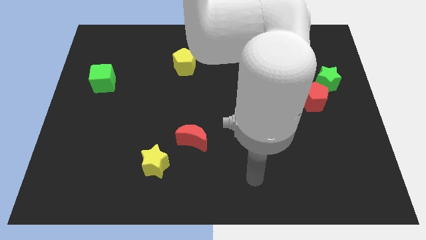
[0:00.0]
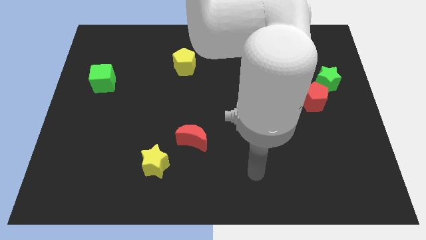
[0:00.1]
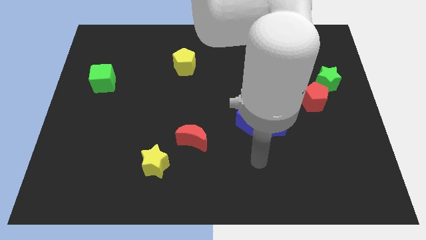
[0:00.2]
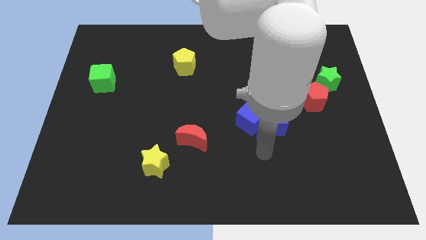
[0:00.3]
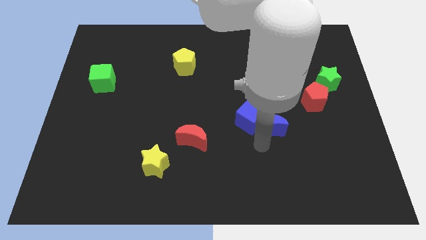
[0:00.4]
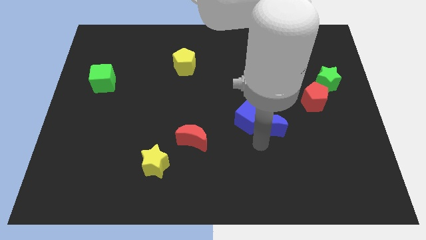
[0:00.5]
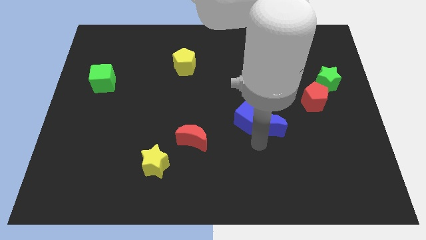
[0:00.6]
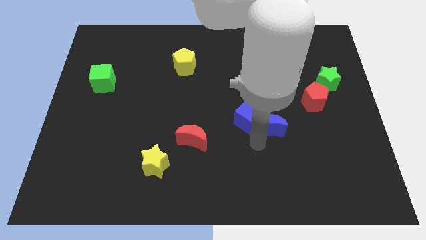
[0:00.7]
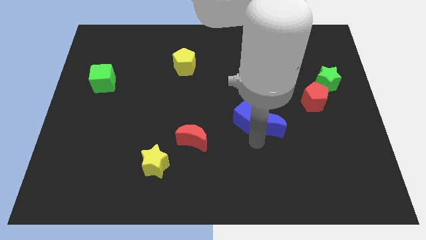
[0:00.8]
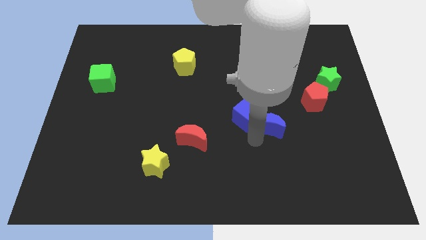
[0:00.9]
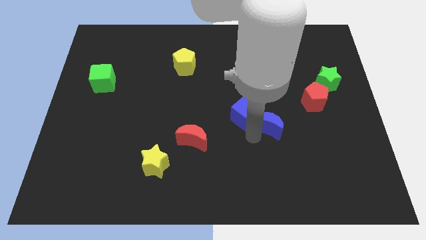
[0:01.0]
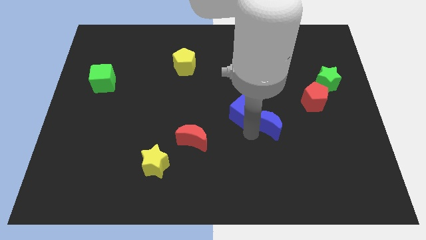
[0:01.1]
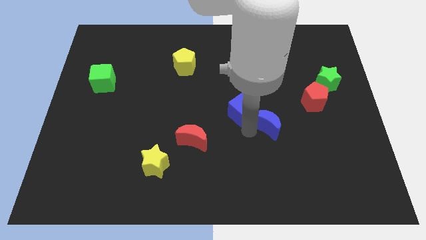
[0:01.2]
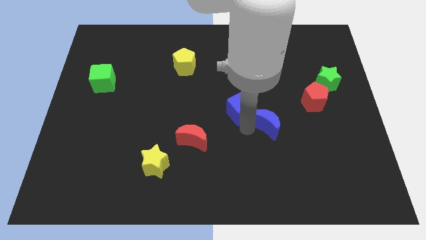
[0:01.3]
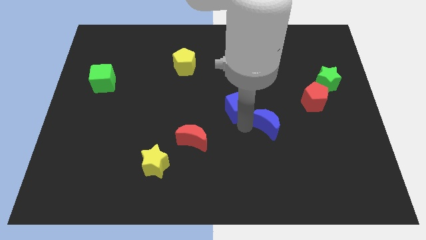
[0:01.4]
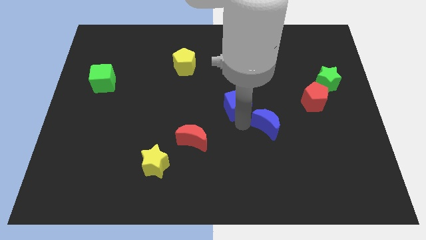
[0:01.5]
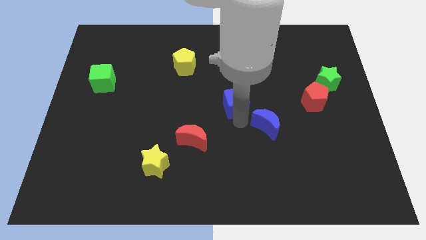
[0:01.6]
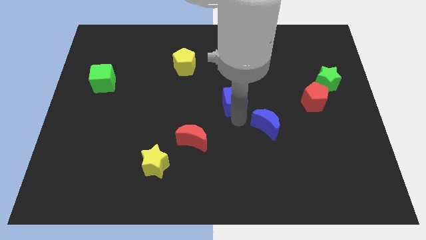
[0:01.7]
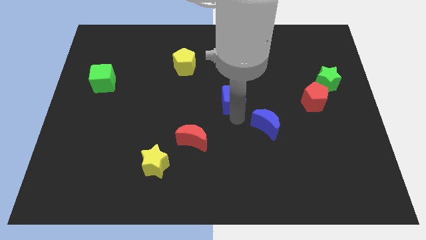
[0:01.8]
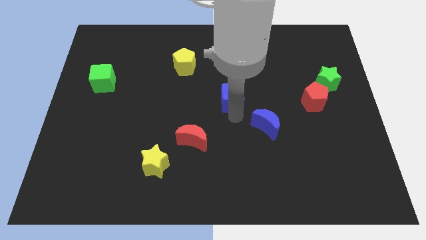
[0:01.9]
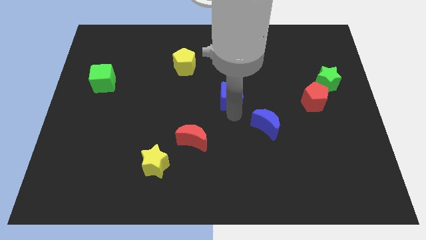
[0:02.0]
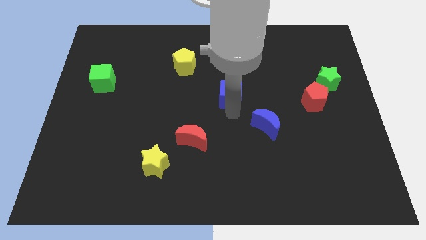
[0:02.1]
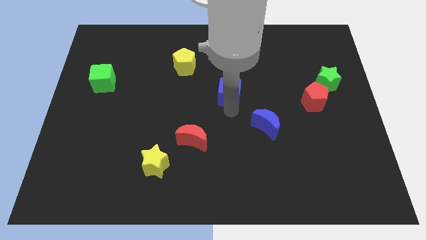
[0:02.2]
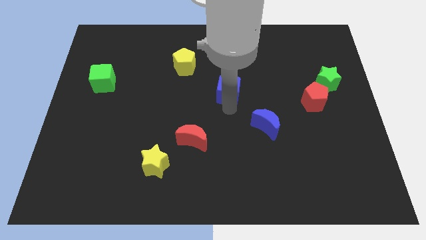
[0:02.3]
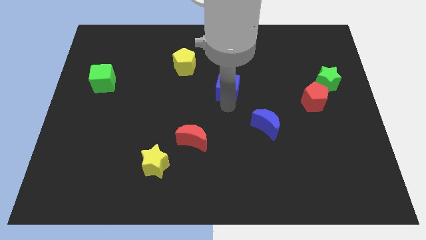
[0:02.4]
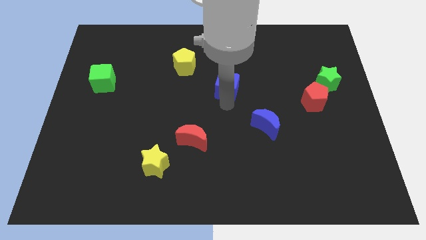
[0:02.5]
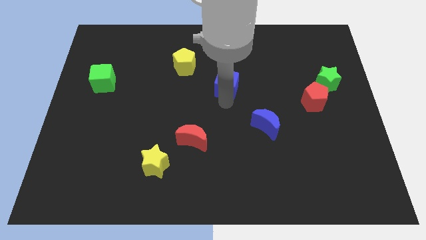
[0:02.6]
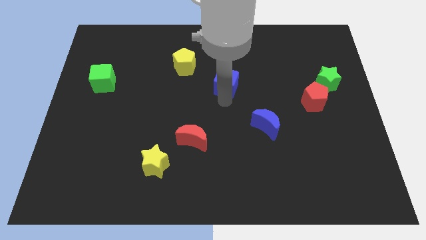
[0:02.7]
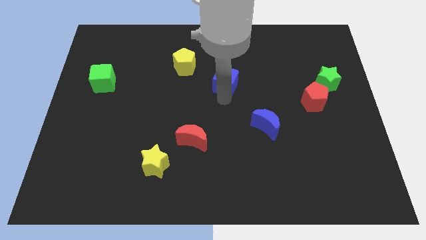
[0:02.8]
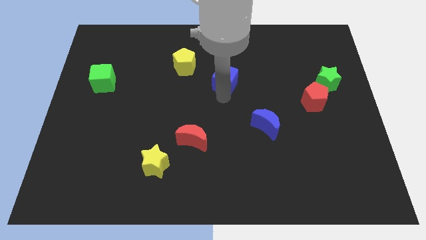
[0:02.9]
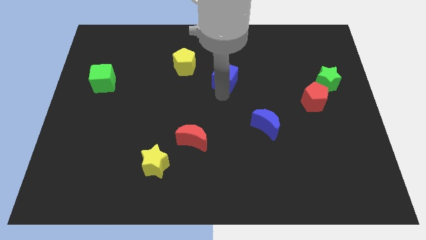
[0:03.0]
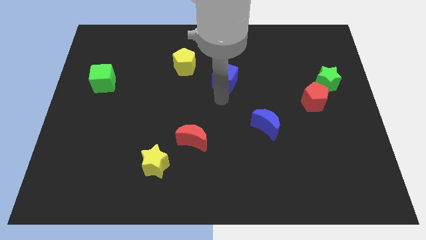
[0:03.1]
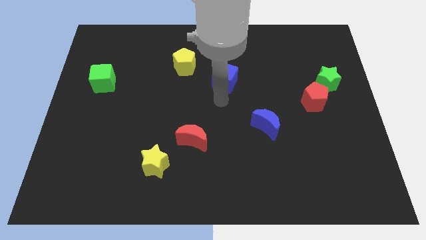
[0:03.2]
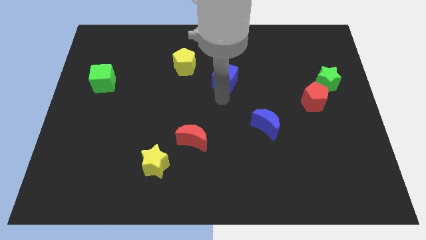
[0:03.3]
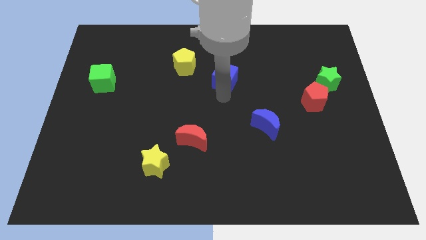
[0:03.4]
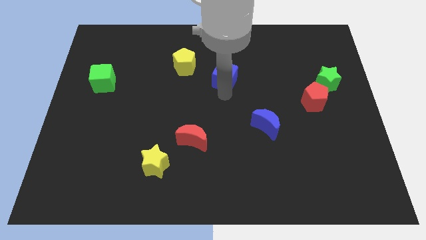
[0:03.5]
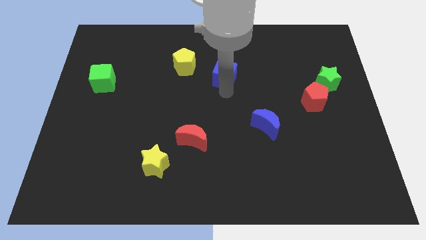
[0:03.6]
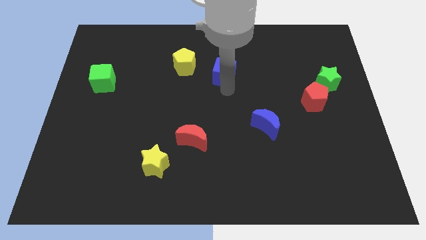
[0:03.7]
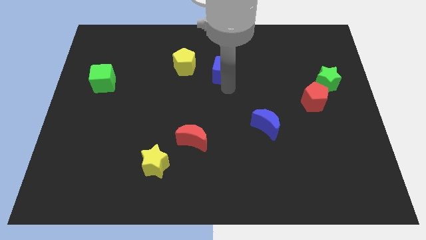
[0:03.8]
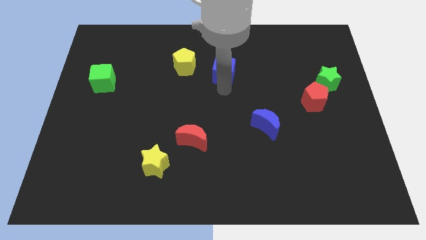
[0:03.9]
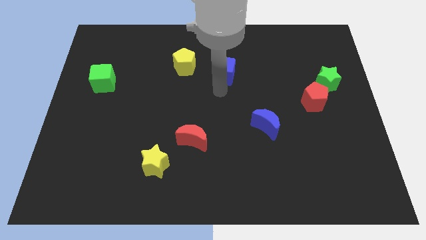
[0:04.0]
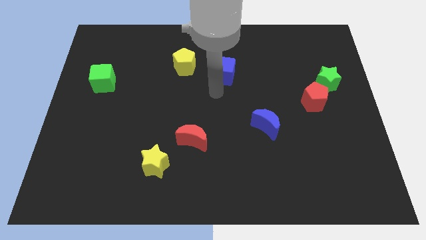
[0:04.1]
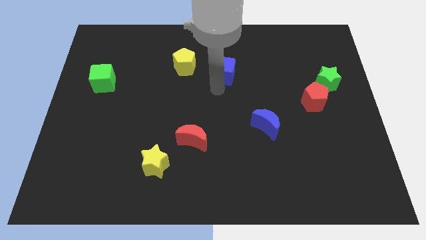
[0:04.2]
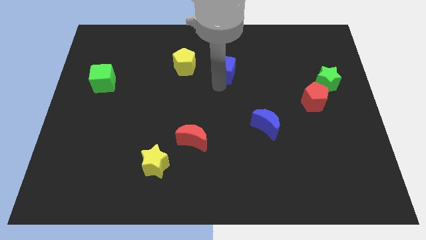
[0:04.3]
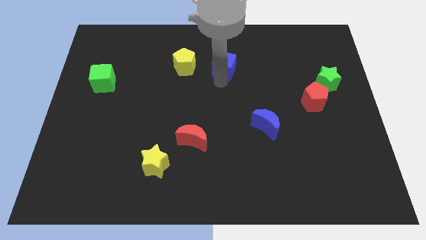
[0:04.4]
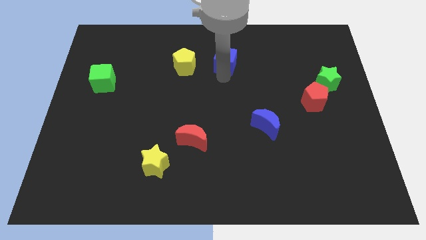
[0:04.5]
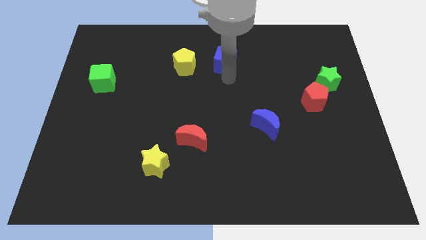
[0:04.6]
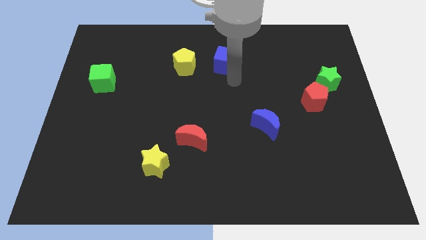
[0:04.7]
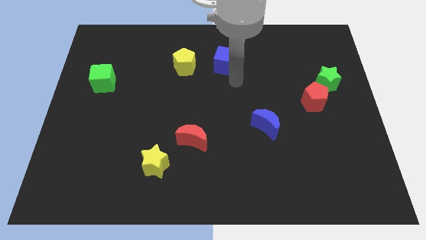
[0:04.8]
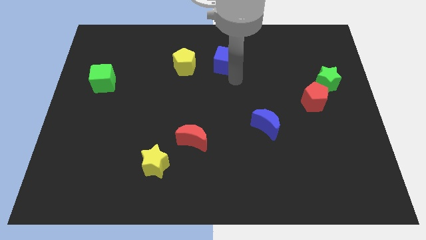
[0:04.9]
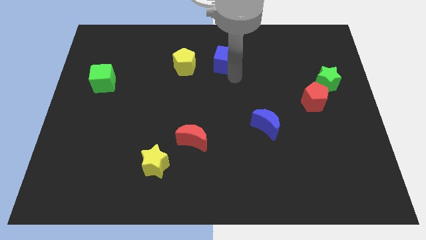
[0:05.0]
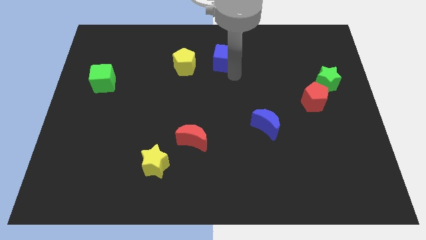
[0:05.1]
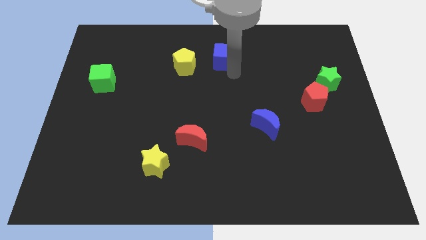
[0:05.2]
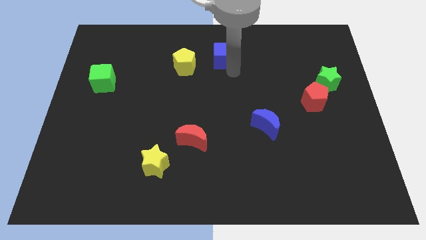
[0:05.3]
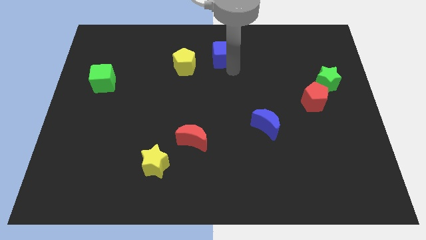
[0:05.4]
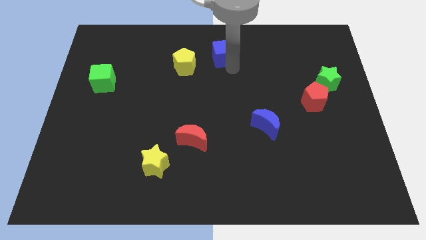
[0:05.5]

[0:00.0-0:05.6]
move the blue cube to the top side

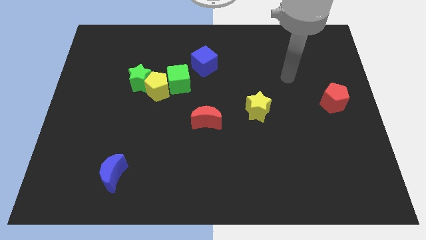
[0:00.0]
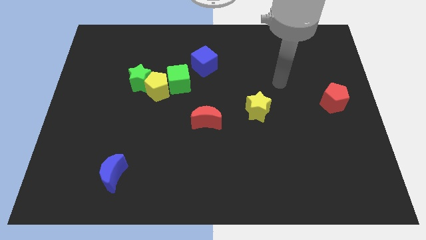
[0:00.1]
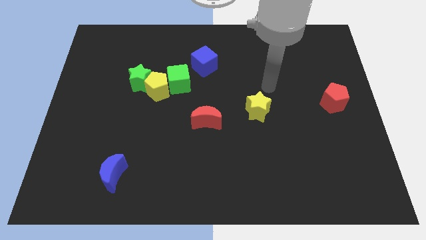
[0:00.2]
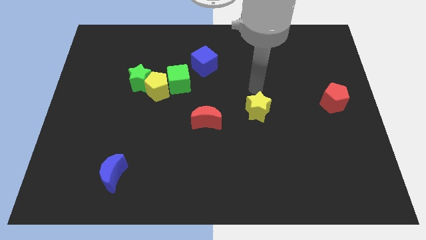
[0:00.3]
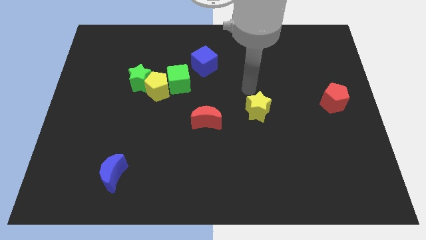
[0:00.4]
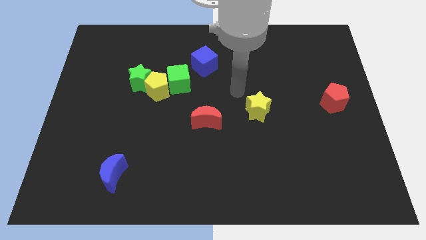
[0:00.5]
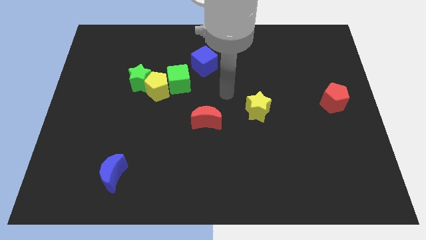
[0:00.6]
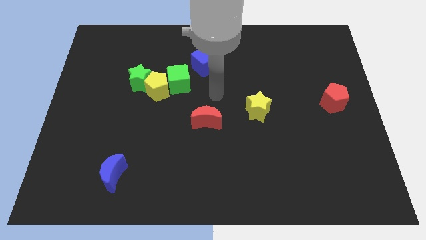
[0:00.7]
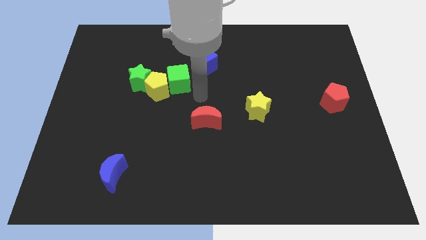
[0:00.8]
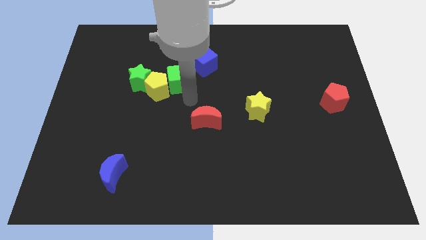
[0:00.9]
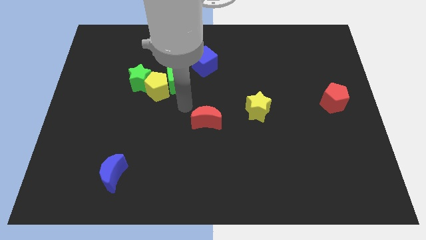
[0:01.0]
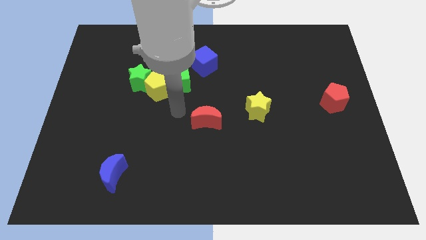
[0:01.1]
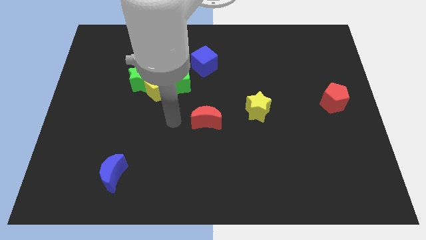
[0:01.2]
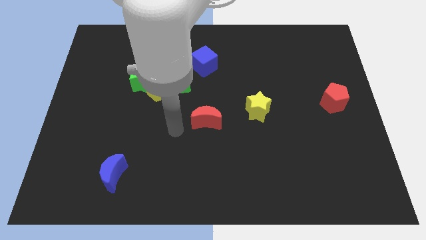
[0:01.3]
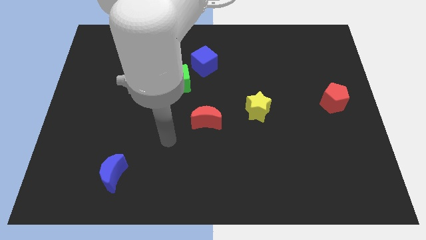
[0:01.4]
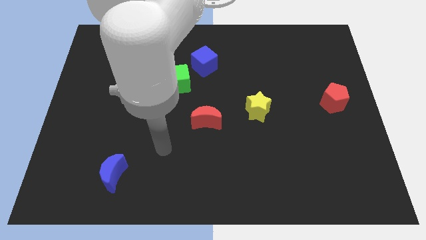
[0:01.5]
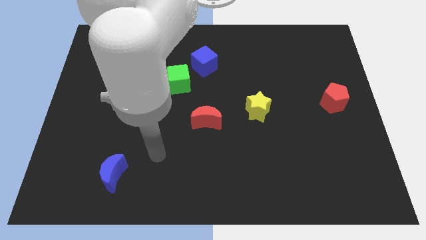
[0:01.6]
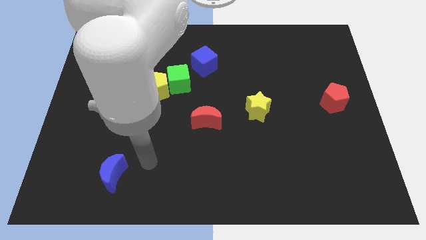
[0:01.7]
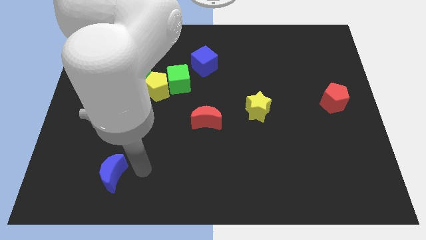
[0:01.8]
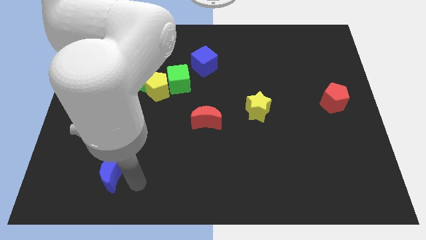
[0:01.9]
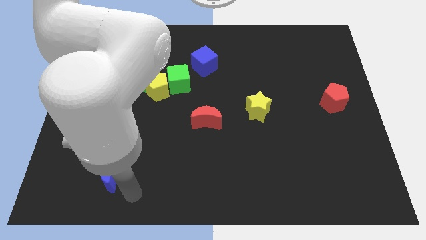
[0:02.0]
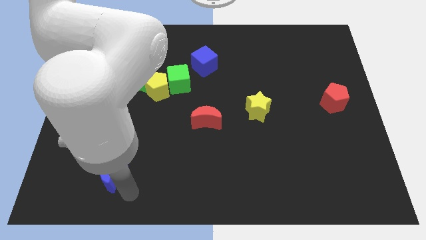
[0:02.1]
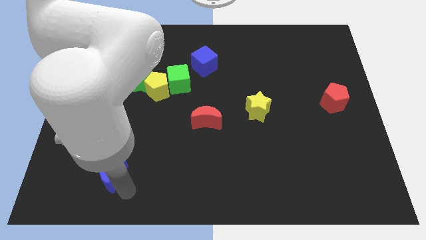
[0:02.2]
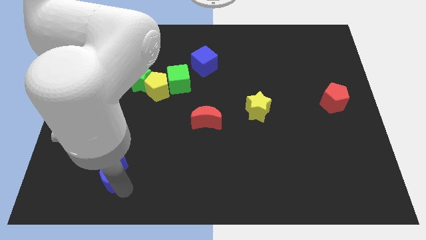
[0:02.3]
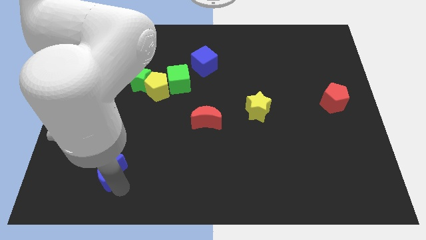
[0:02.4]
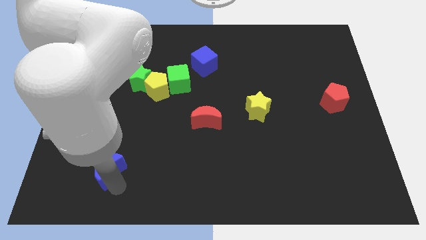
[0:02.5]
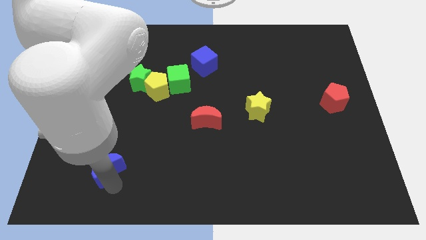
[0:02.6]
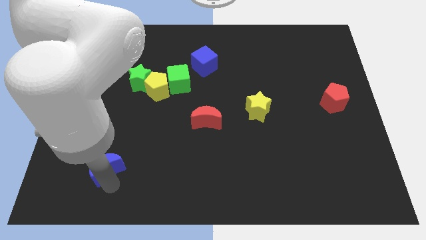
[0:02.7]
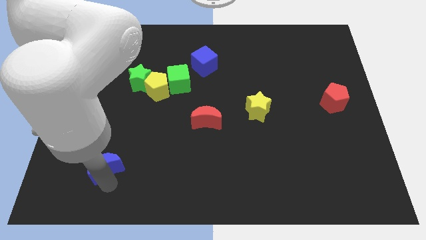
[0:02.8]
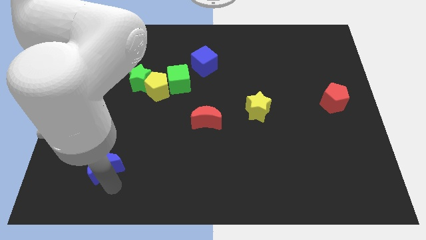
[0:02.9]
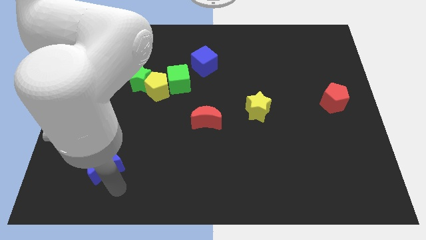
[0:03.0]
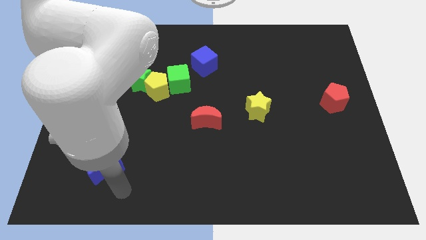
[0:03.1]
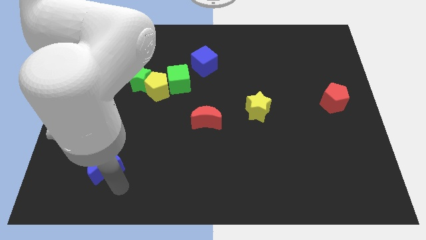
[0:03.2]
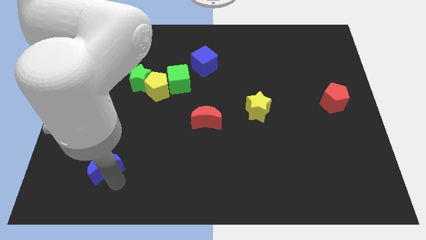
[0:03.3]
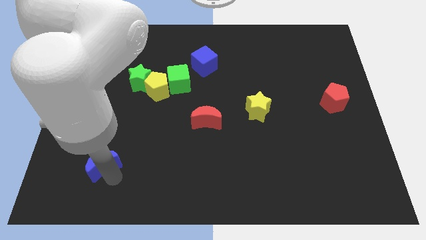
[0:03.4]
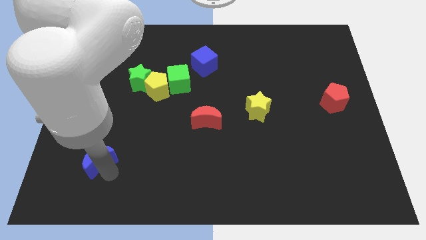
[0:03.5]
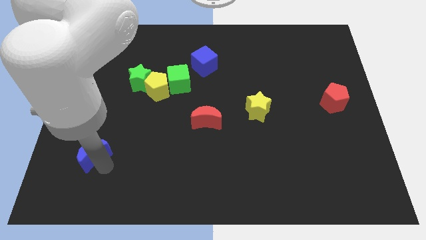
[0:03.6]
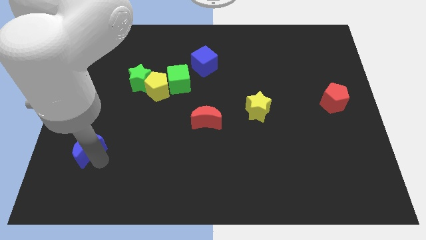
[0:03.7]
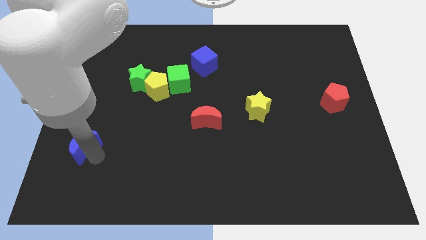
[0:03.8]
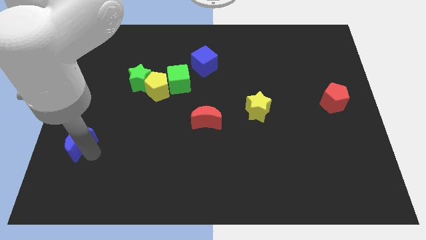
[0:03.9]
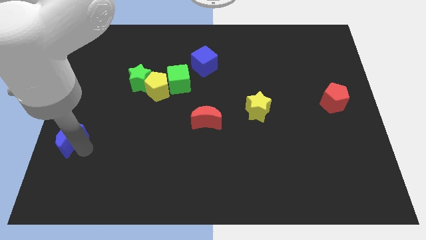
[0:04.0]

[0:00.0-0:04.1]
move the blue moon to the left side of the board
